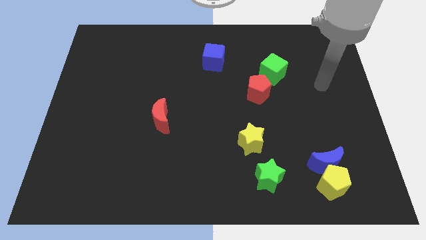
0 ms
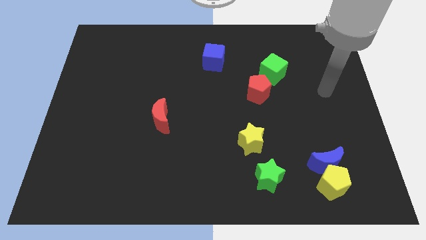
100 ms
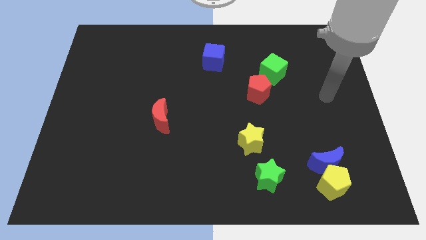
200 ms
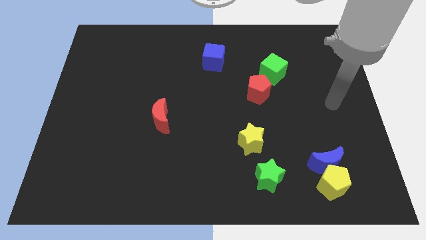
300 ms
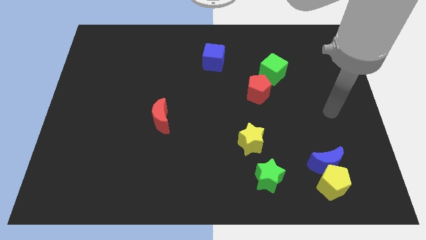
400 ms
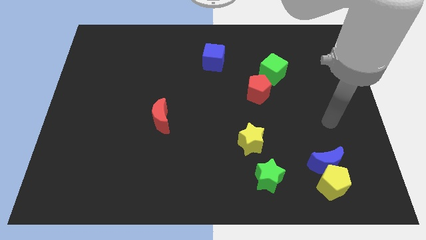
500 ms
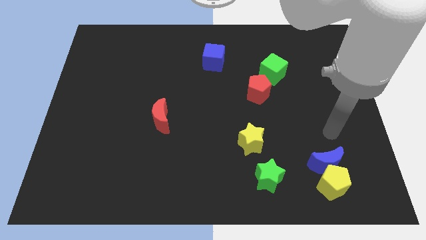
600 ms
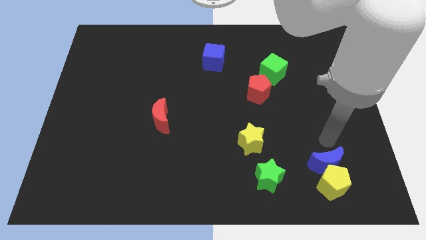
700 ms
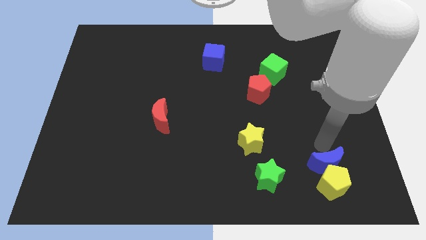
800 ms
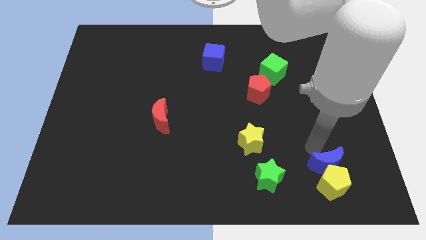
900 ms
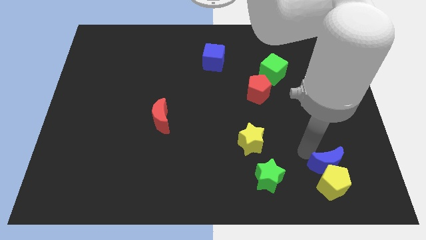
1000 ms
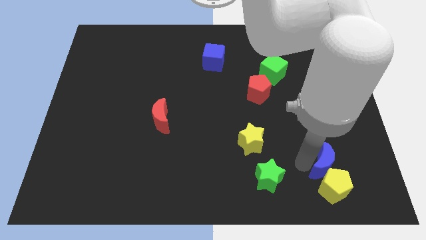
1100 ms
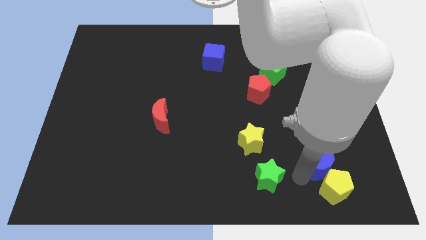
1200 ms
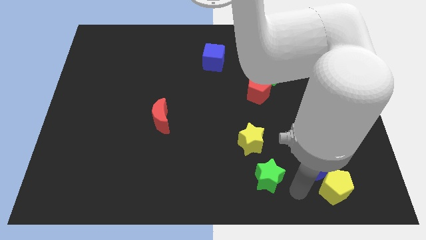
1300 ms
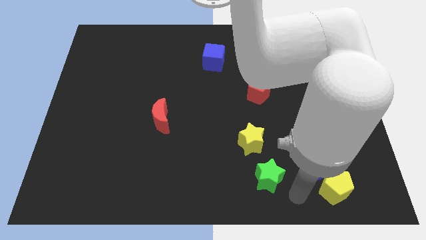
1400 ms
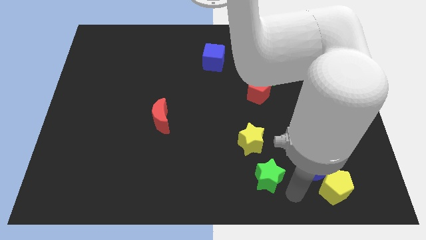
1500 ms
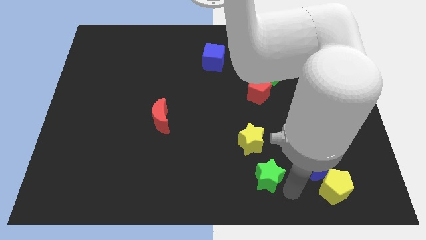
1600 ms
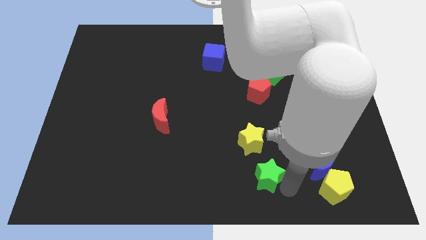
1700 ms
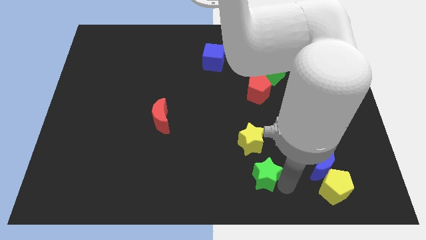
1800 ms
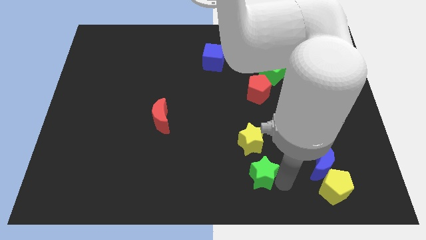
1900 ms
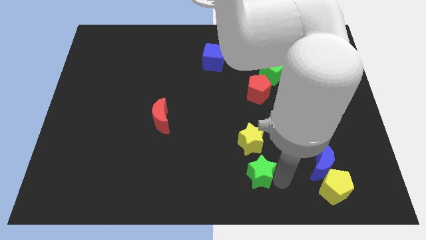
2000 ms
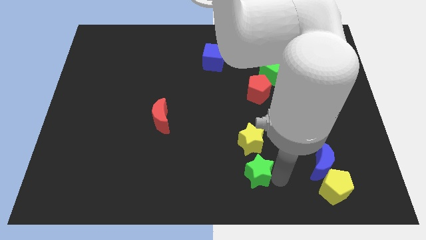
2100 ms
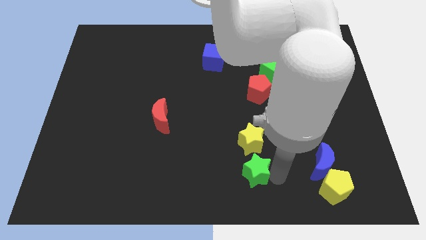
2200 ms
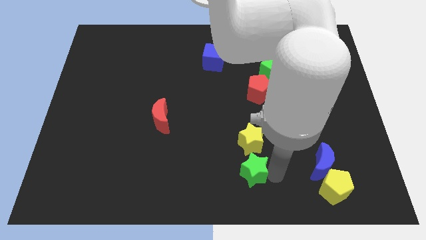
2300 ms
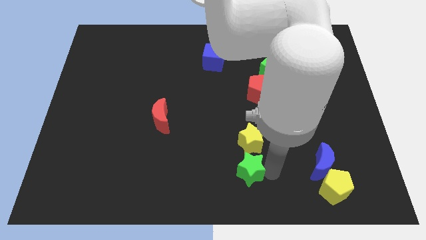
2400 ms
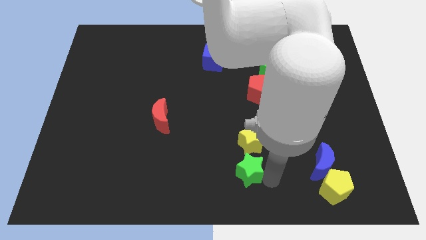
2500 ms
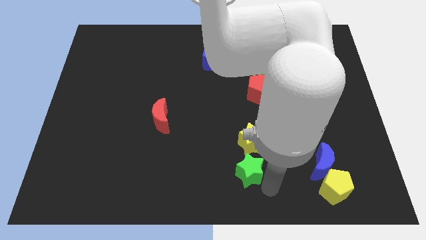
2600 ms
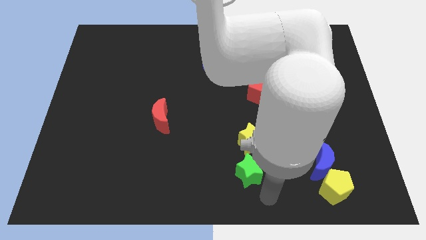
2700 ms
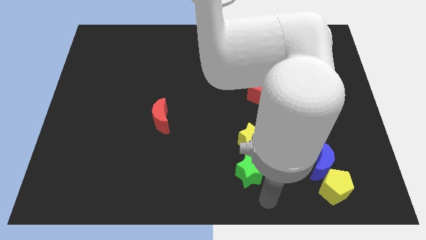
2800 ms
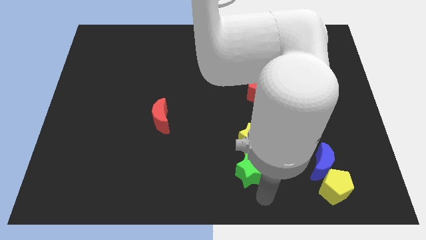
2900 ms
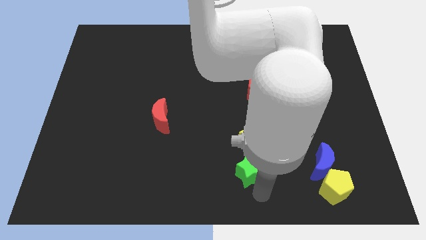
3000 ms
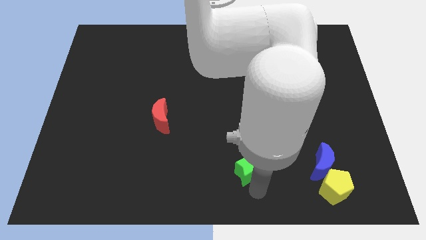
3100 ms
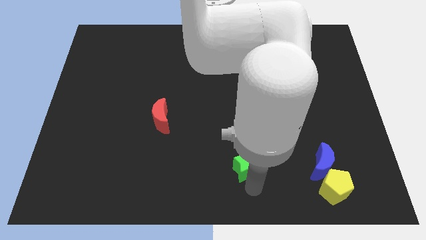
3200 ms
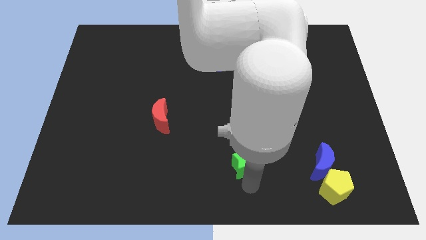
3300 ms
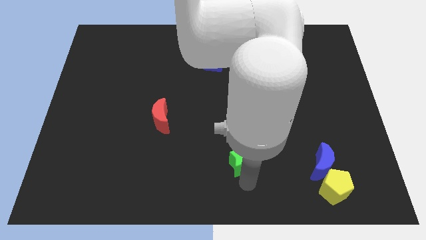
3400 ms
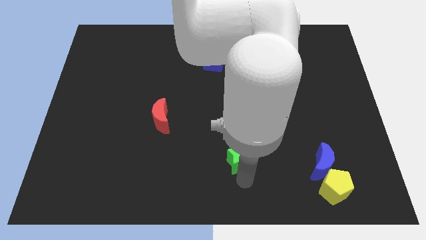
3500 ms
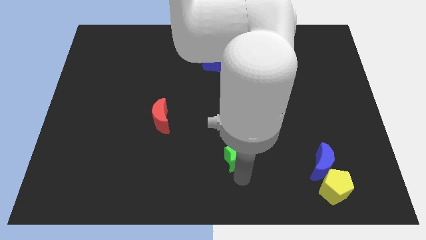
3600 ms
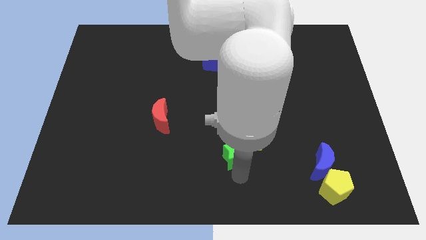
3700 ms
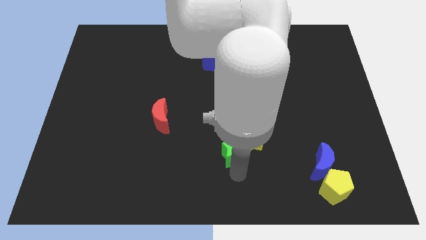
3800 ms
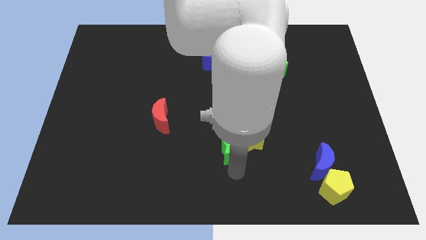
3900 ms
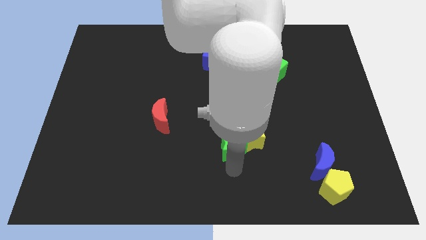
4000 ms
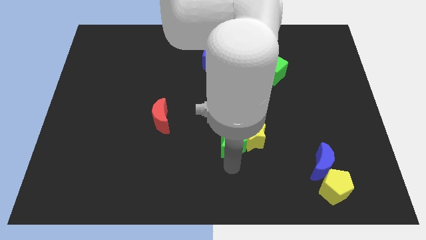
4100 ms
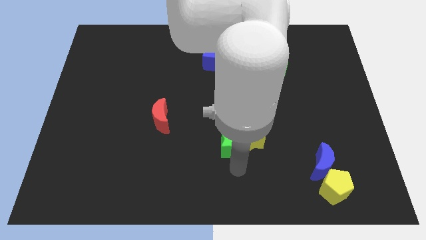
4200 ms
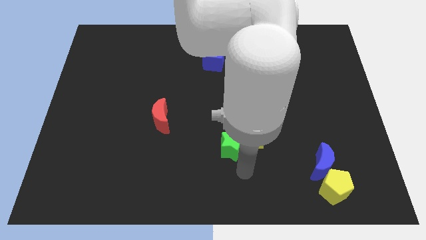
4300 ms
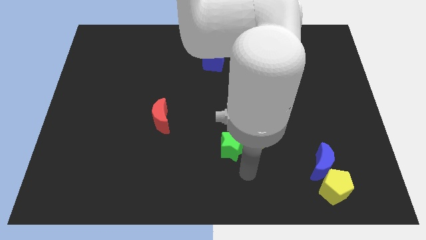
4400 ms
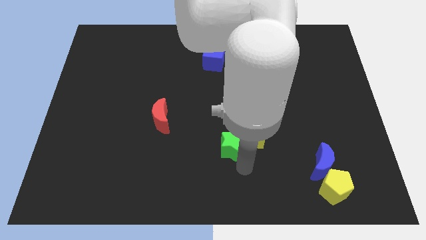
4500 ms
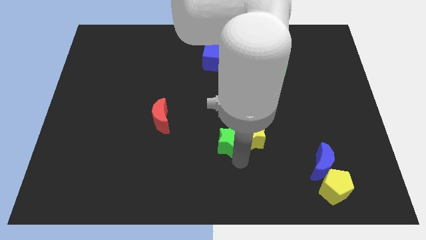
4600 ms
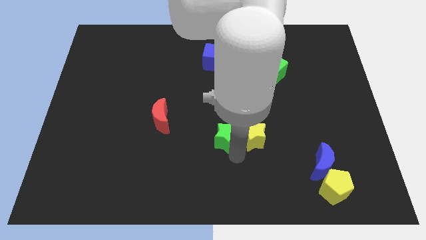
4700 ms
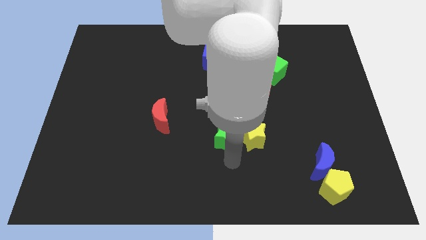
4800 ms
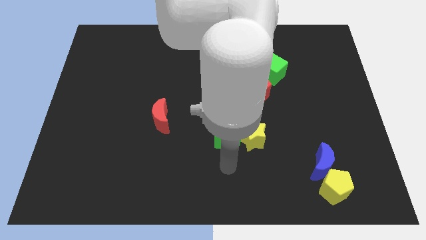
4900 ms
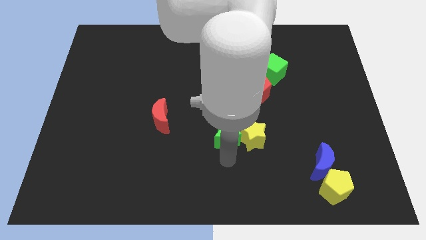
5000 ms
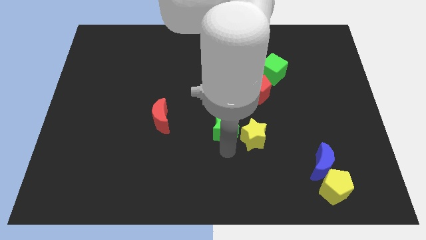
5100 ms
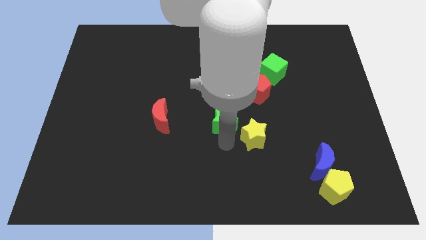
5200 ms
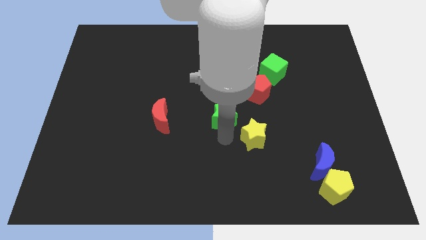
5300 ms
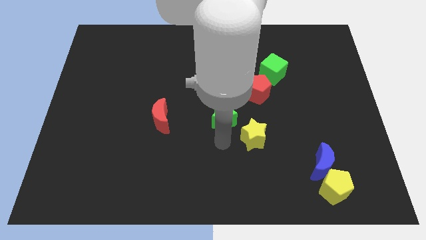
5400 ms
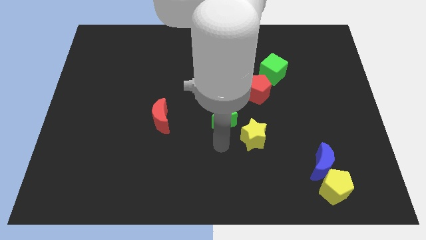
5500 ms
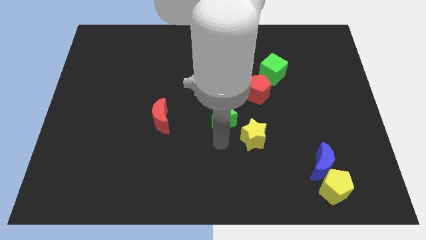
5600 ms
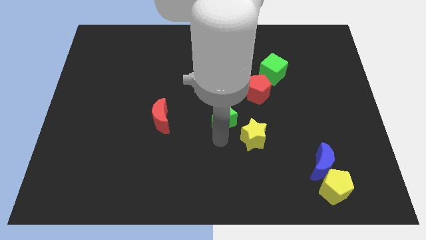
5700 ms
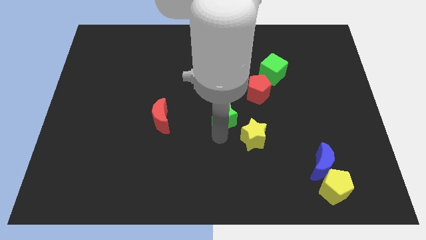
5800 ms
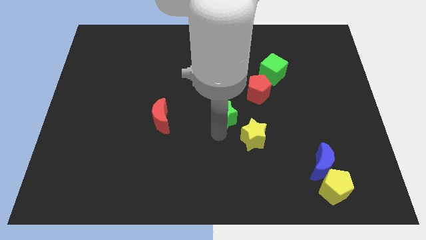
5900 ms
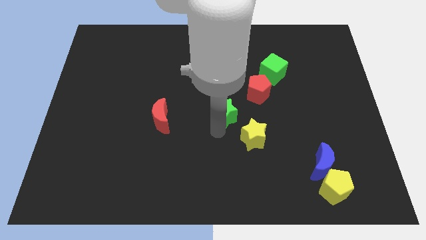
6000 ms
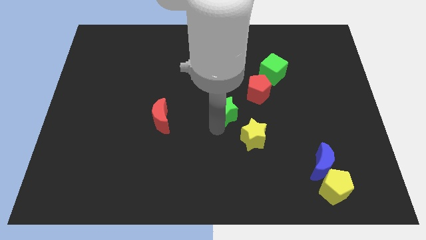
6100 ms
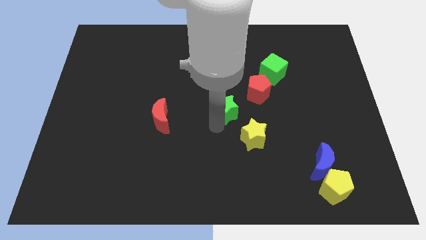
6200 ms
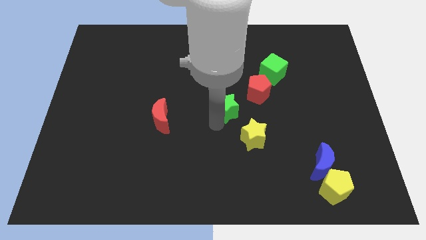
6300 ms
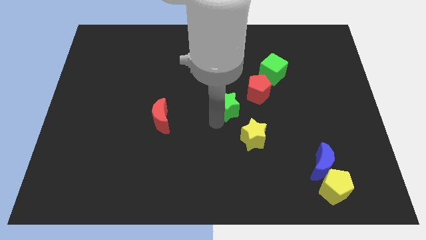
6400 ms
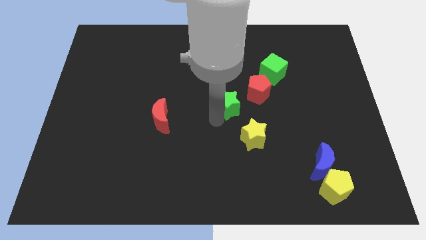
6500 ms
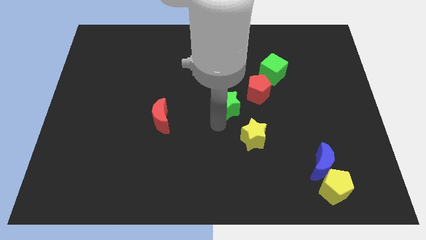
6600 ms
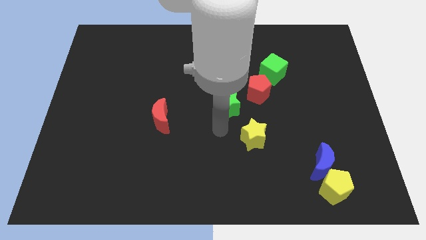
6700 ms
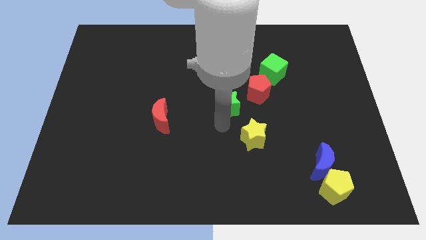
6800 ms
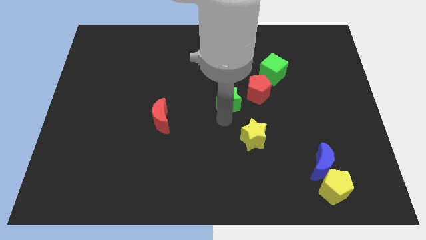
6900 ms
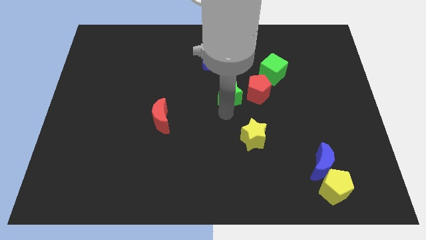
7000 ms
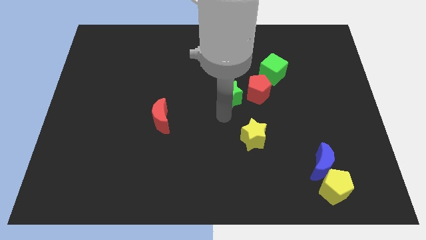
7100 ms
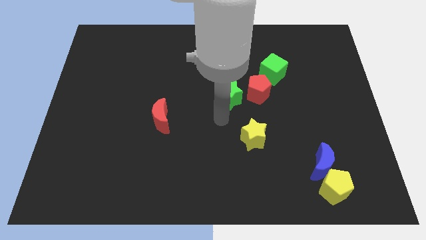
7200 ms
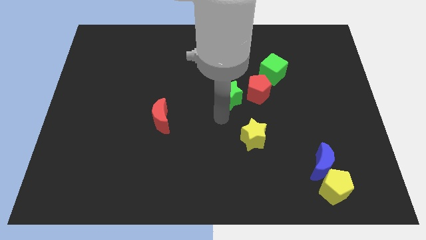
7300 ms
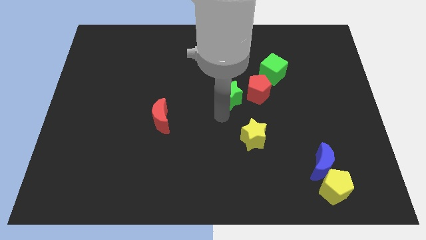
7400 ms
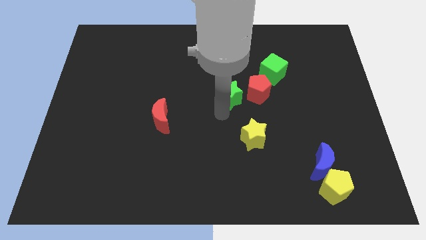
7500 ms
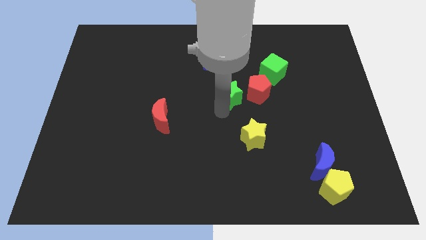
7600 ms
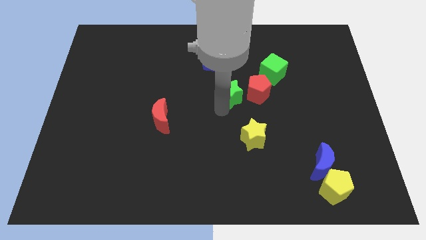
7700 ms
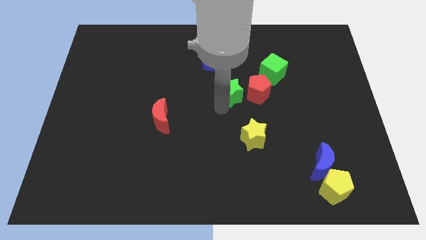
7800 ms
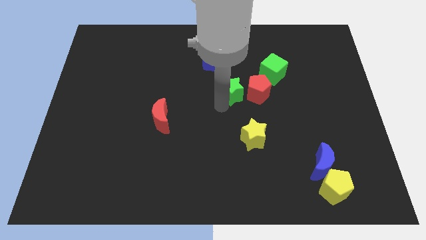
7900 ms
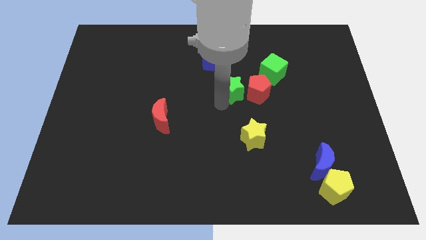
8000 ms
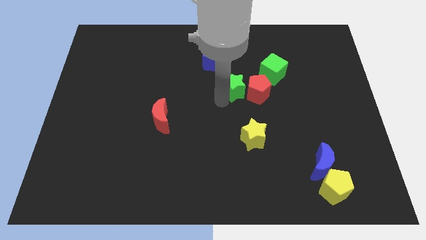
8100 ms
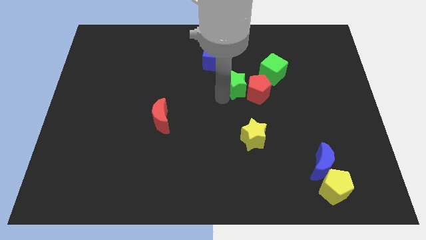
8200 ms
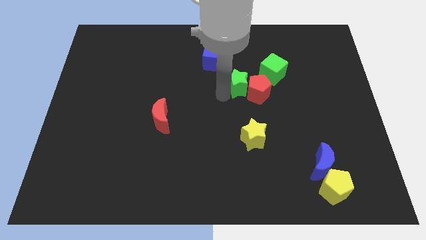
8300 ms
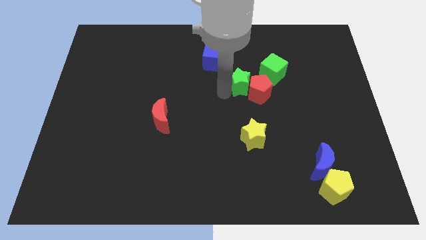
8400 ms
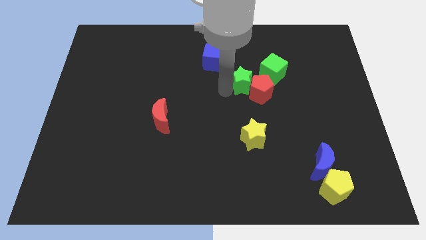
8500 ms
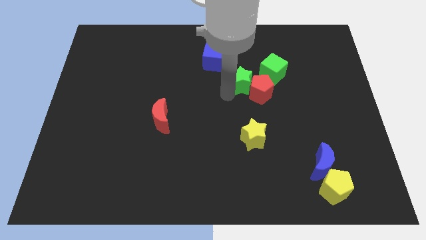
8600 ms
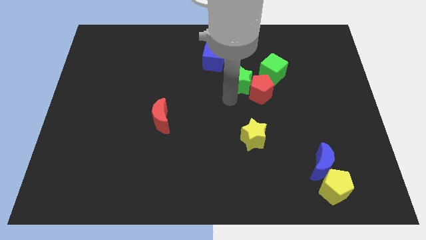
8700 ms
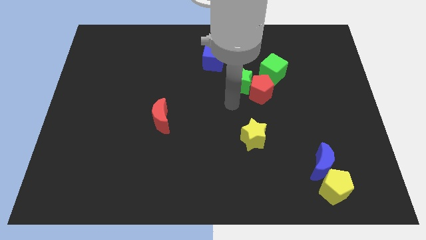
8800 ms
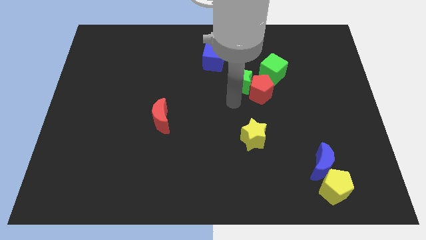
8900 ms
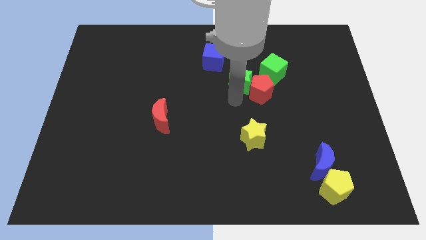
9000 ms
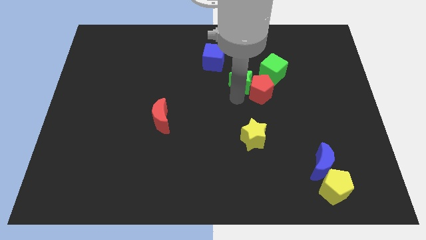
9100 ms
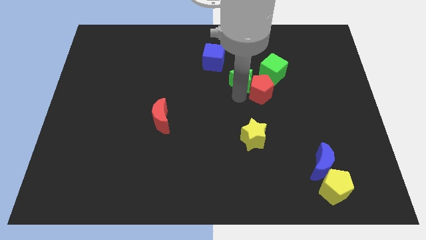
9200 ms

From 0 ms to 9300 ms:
slide the green star to the top side of the red pentagon
